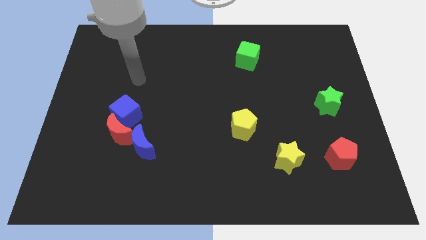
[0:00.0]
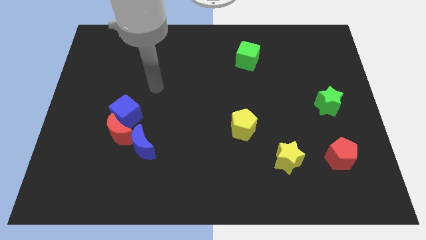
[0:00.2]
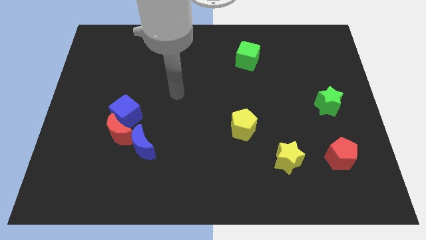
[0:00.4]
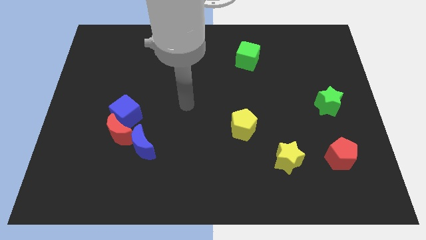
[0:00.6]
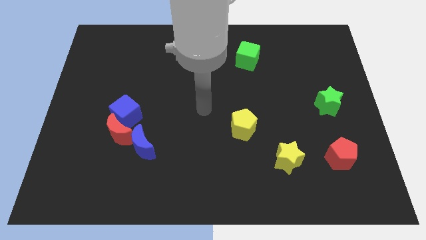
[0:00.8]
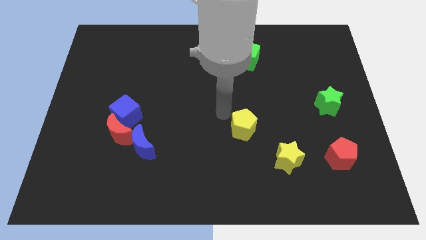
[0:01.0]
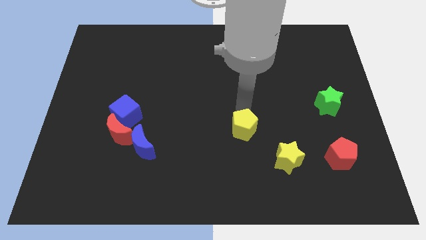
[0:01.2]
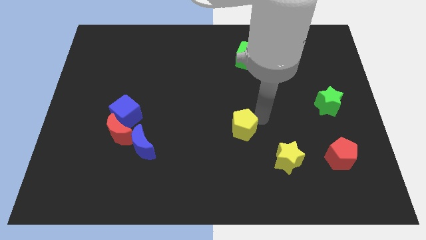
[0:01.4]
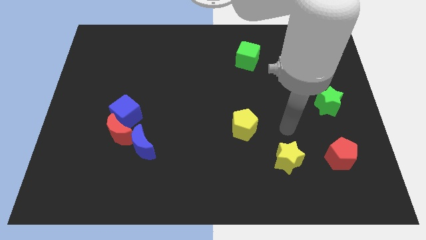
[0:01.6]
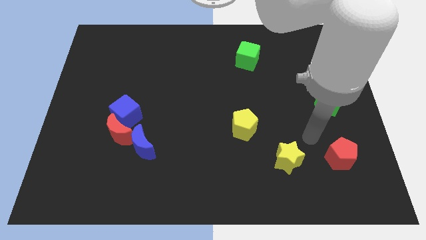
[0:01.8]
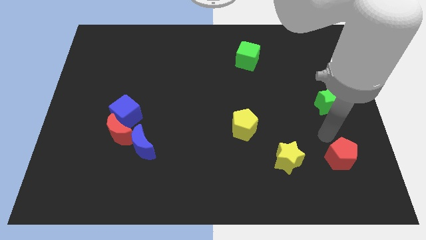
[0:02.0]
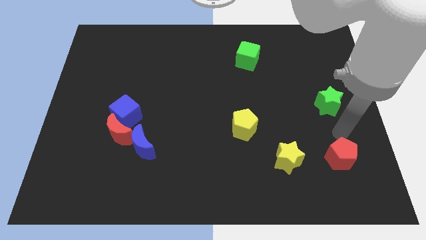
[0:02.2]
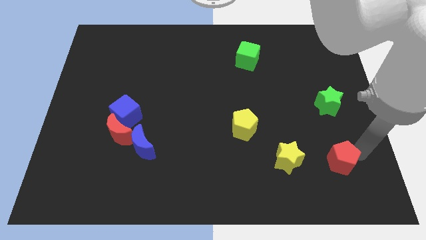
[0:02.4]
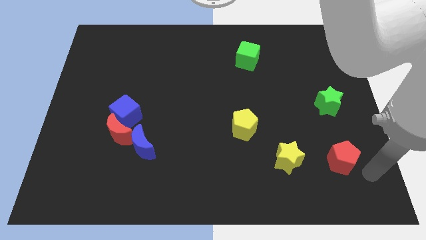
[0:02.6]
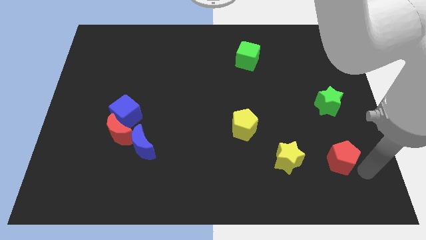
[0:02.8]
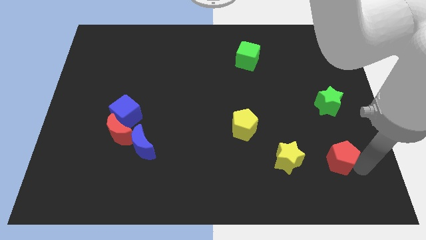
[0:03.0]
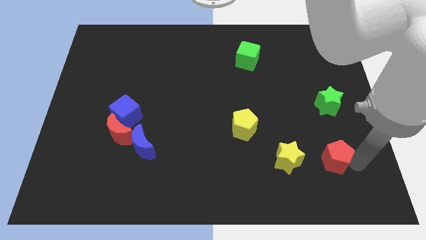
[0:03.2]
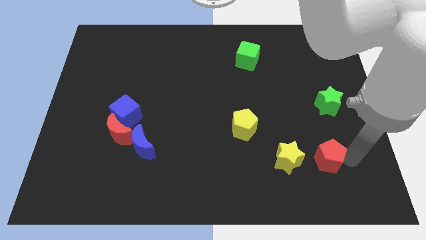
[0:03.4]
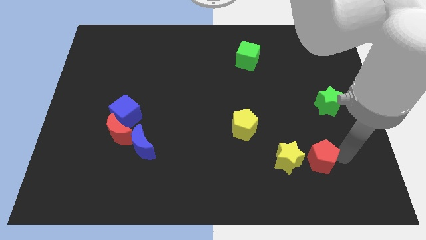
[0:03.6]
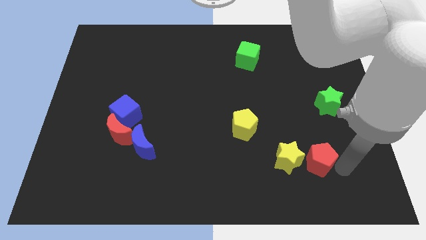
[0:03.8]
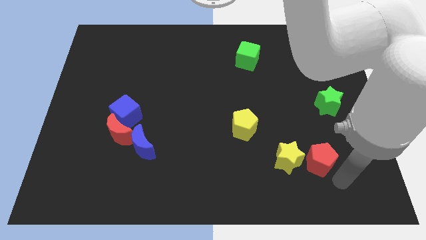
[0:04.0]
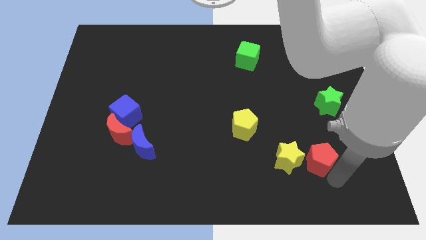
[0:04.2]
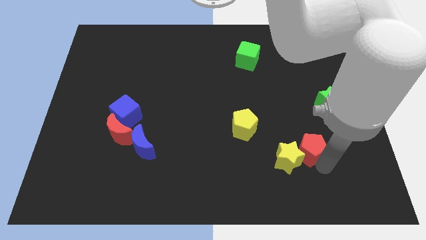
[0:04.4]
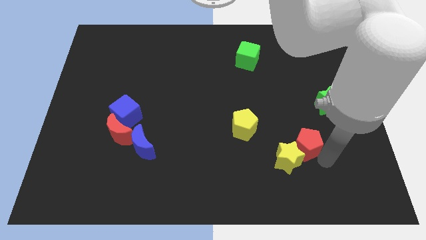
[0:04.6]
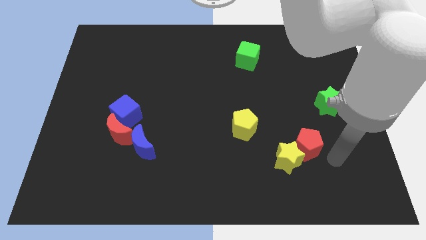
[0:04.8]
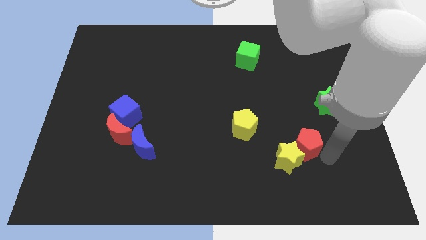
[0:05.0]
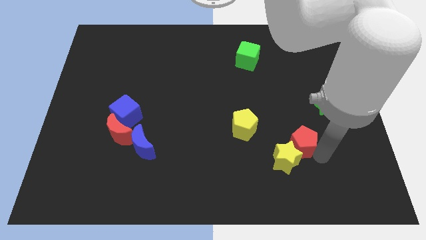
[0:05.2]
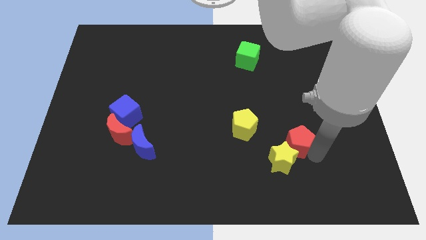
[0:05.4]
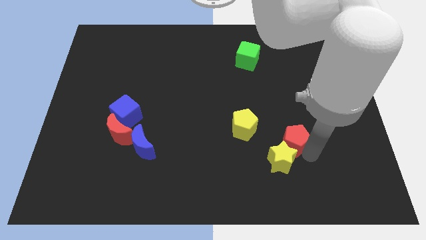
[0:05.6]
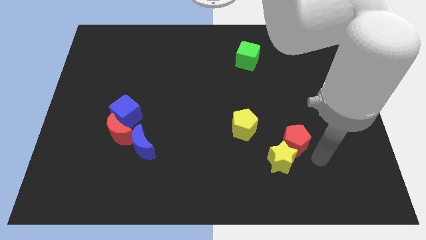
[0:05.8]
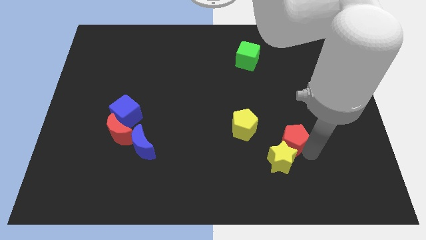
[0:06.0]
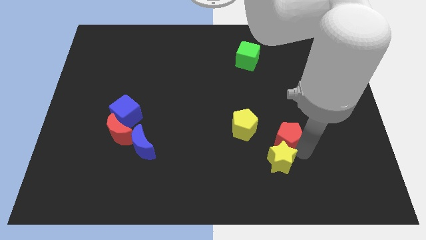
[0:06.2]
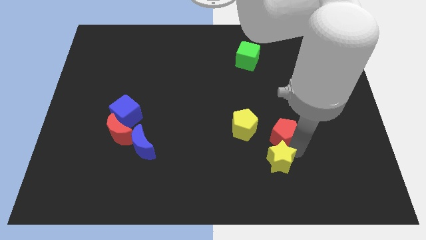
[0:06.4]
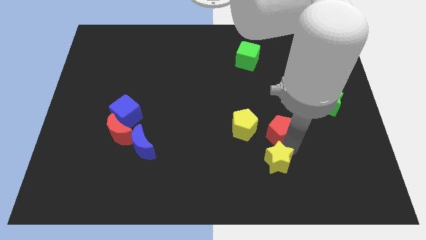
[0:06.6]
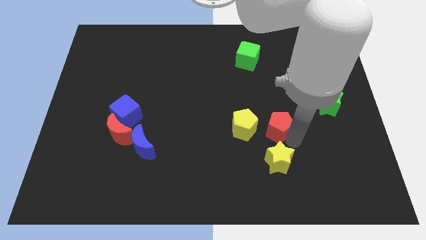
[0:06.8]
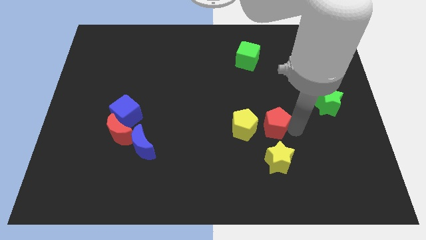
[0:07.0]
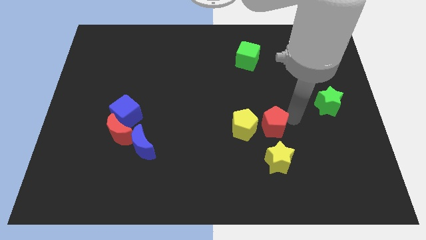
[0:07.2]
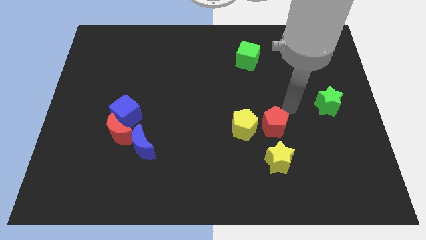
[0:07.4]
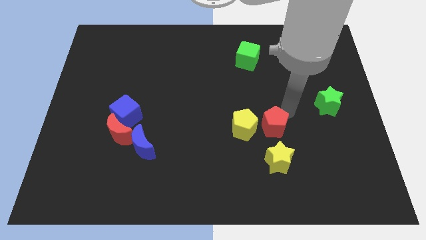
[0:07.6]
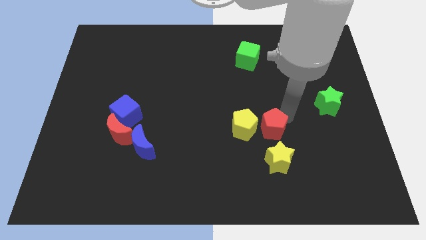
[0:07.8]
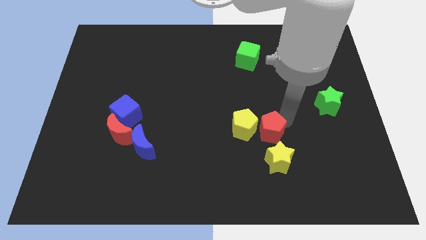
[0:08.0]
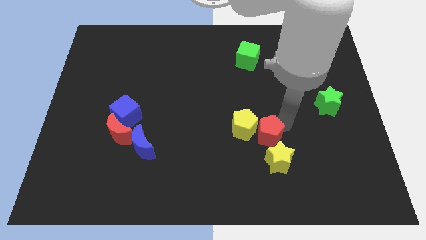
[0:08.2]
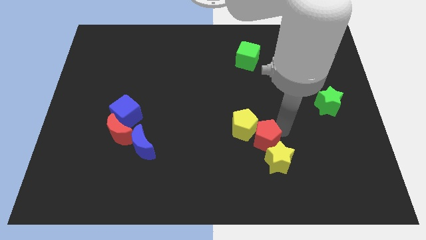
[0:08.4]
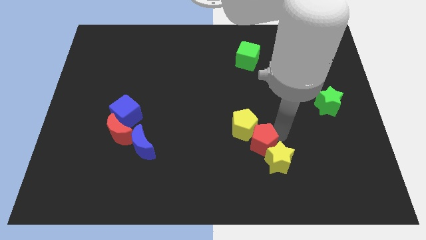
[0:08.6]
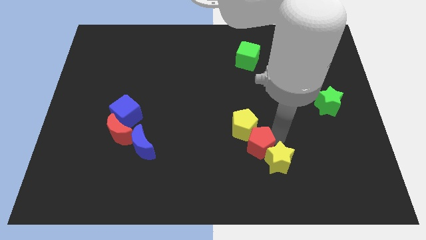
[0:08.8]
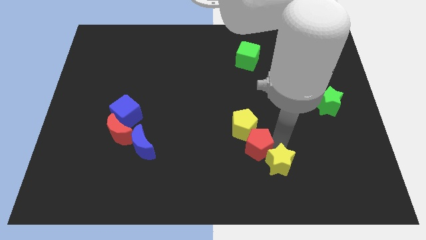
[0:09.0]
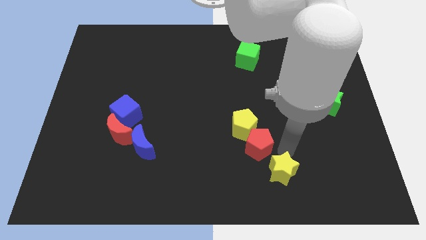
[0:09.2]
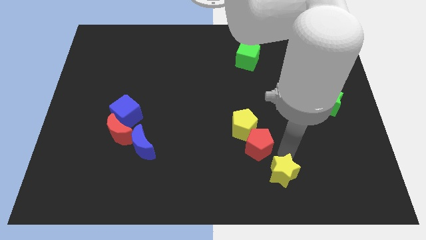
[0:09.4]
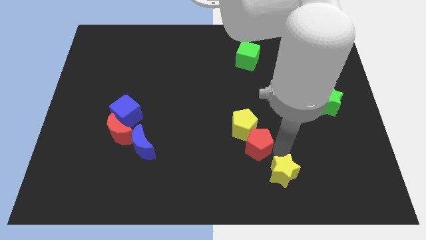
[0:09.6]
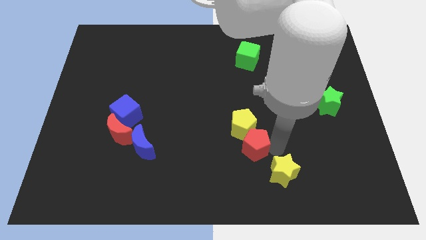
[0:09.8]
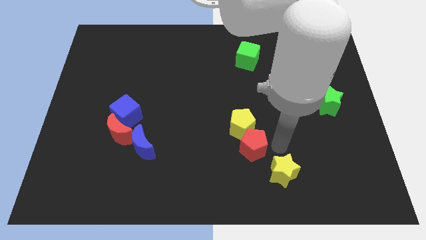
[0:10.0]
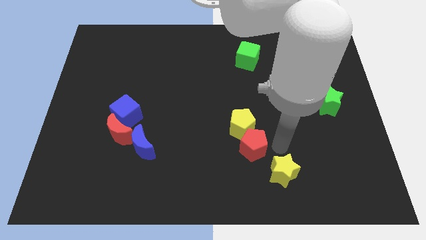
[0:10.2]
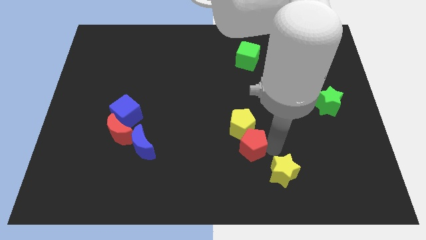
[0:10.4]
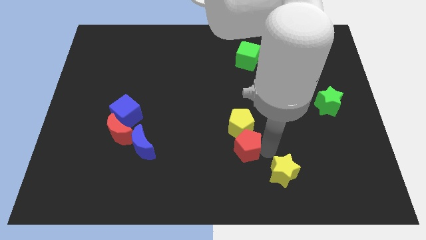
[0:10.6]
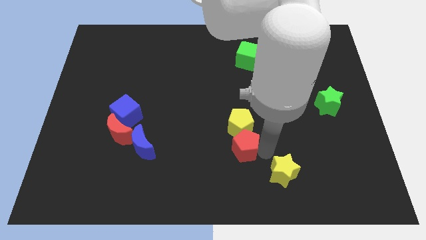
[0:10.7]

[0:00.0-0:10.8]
slide the red pentagon left

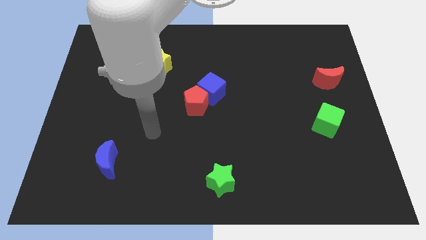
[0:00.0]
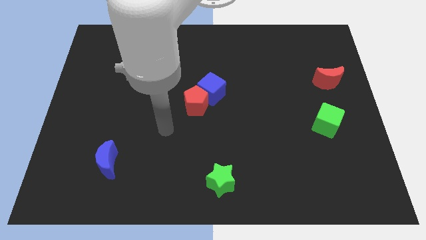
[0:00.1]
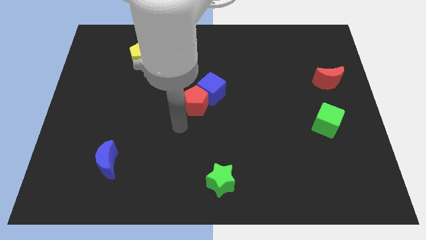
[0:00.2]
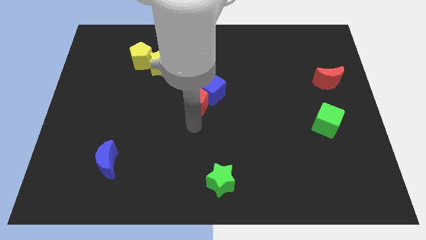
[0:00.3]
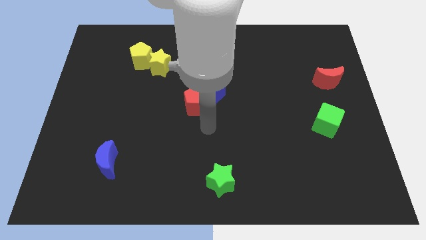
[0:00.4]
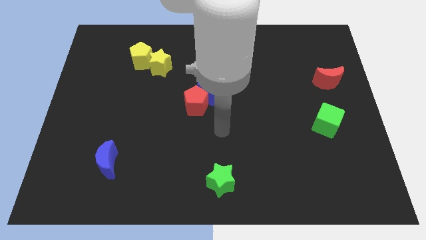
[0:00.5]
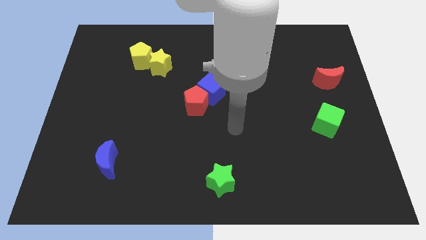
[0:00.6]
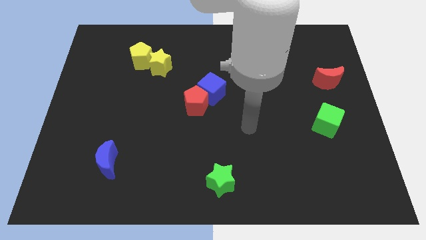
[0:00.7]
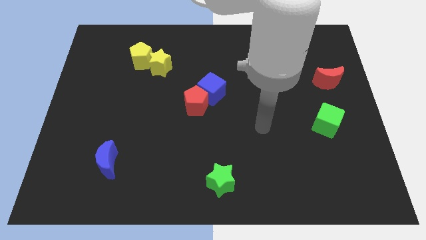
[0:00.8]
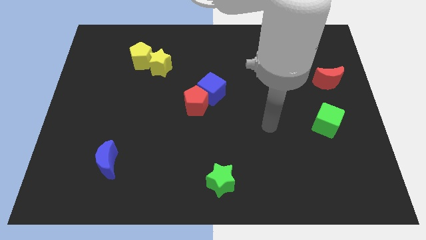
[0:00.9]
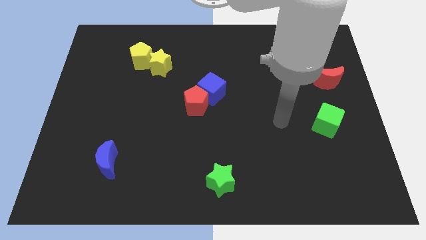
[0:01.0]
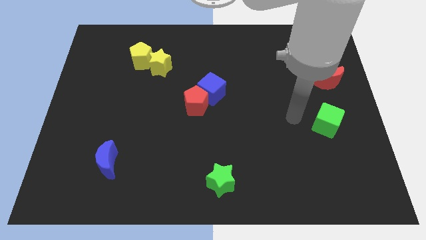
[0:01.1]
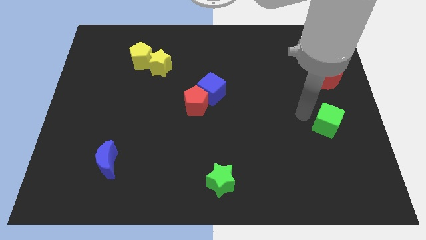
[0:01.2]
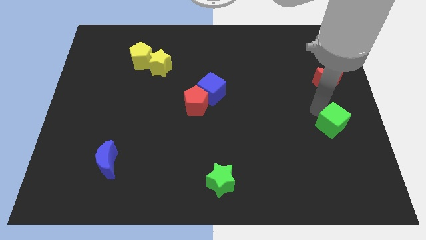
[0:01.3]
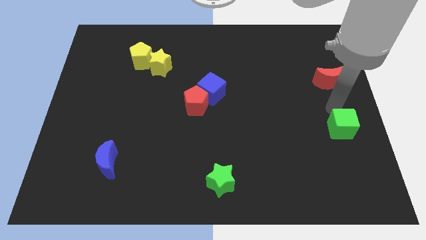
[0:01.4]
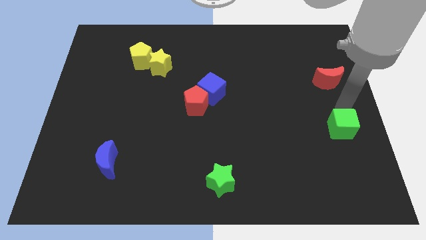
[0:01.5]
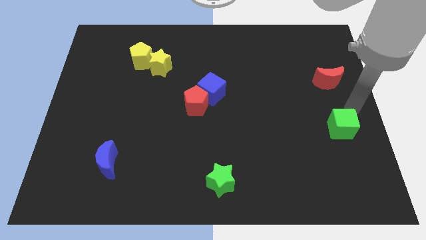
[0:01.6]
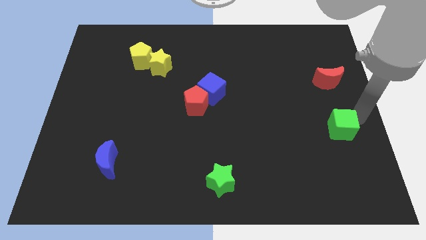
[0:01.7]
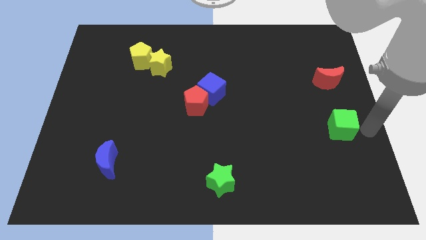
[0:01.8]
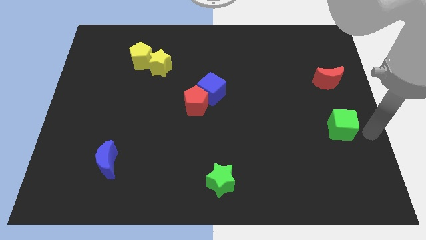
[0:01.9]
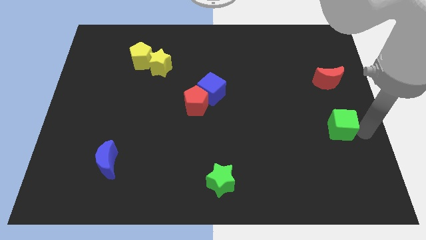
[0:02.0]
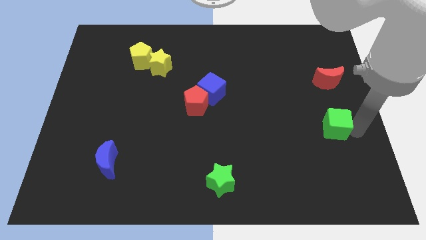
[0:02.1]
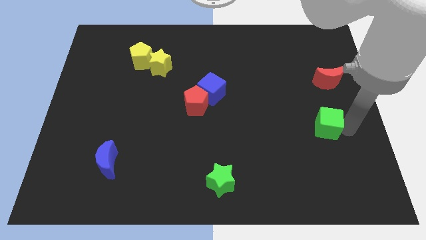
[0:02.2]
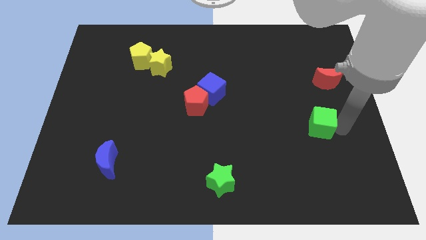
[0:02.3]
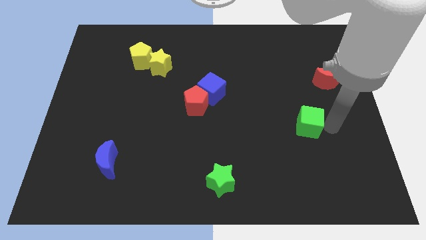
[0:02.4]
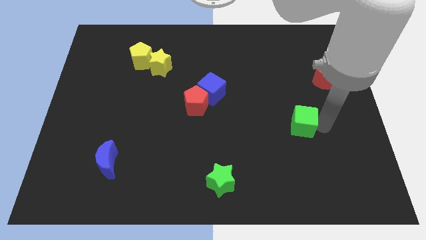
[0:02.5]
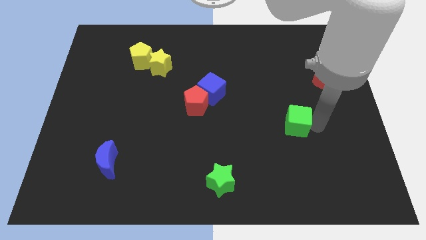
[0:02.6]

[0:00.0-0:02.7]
move the green cube somewhat to the left
